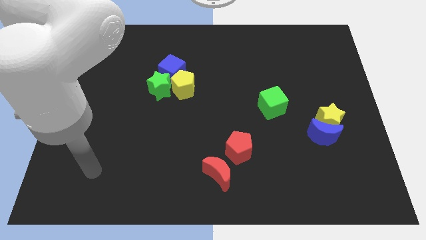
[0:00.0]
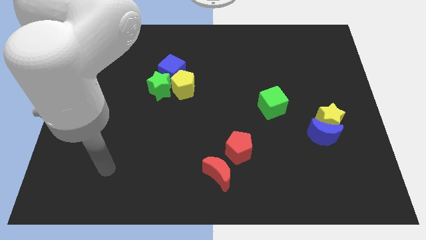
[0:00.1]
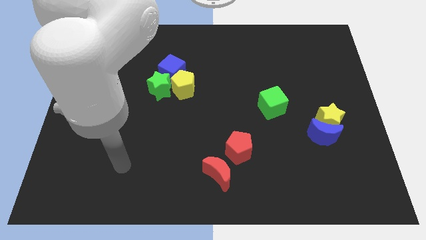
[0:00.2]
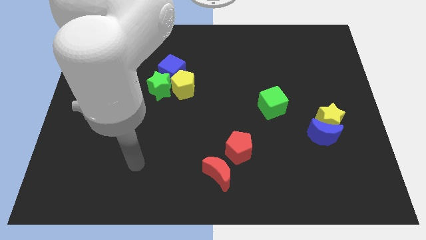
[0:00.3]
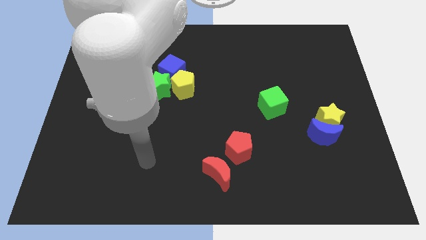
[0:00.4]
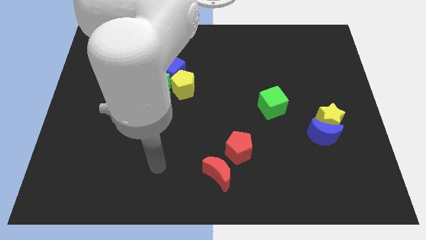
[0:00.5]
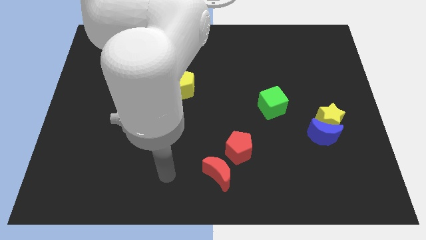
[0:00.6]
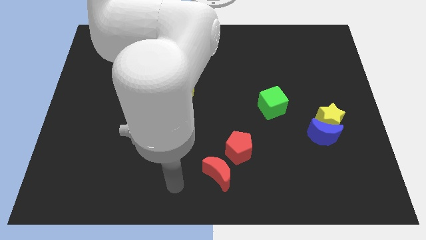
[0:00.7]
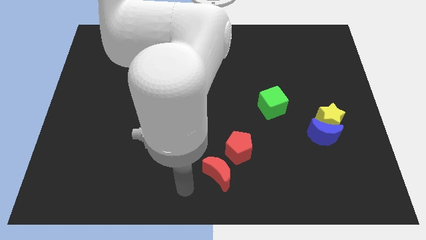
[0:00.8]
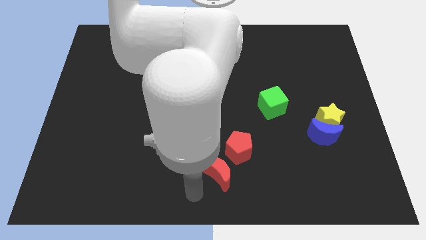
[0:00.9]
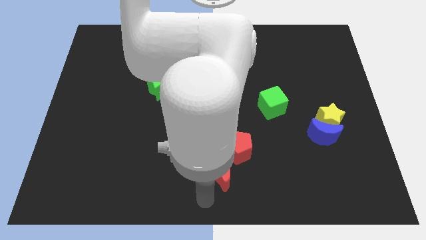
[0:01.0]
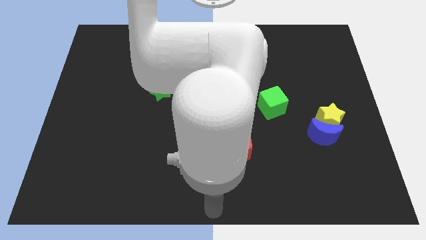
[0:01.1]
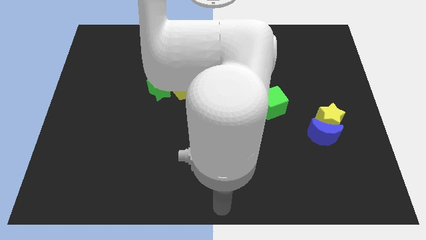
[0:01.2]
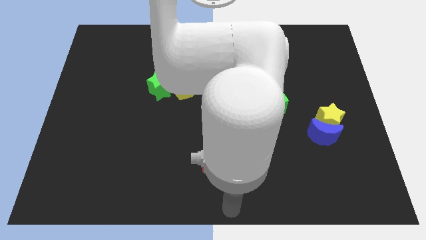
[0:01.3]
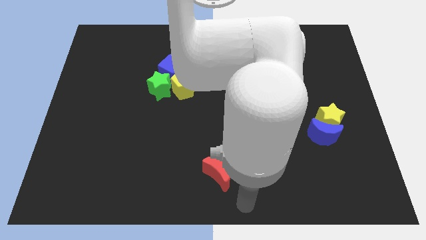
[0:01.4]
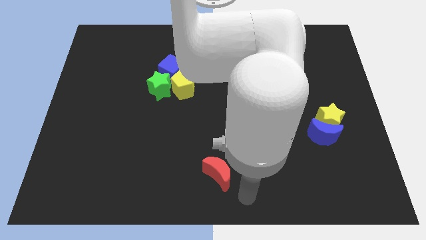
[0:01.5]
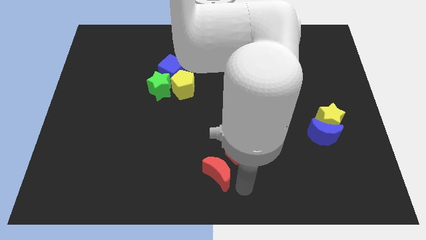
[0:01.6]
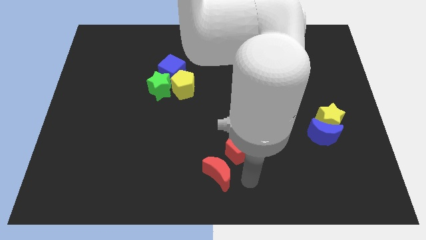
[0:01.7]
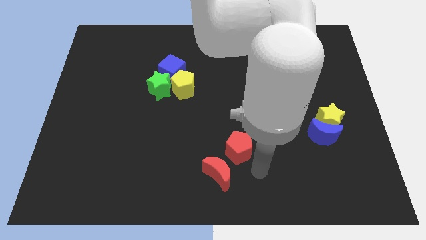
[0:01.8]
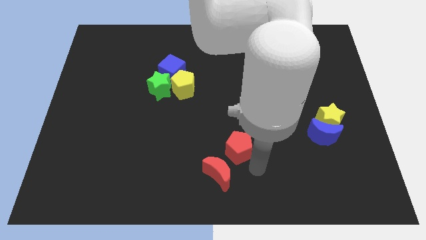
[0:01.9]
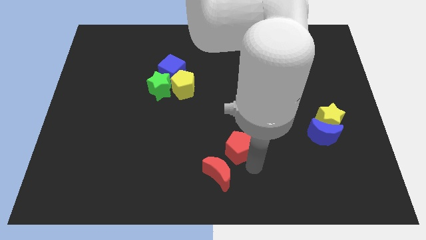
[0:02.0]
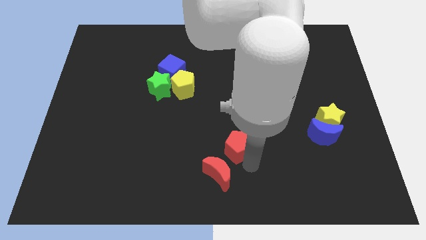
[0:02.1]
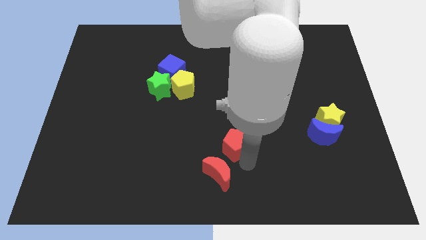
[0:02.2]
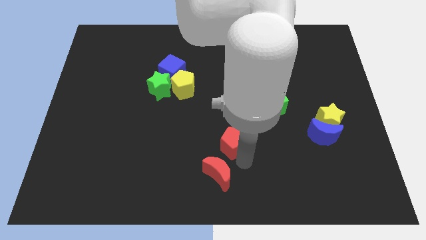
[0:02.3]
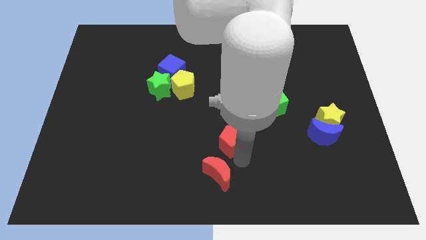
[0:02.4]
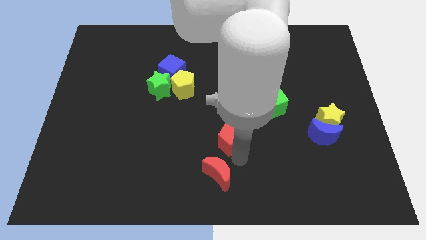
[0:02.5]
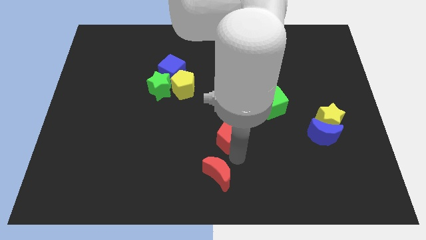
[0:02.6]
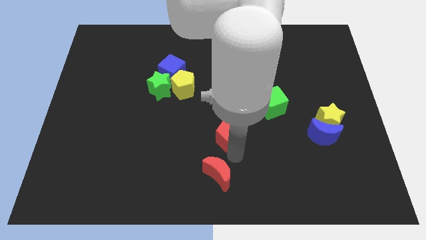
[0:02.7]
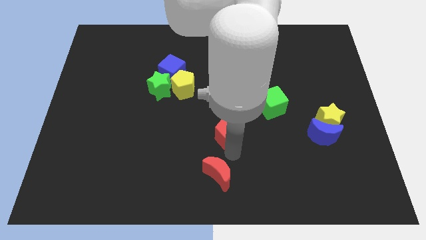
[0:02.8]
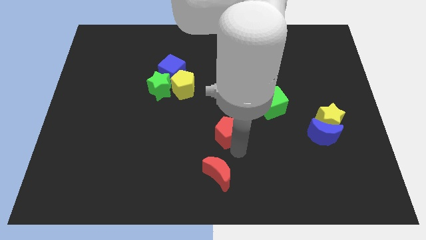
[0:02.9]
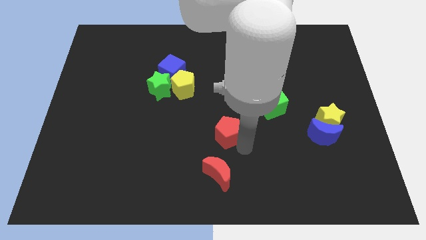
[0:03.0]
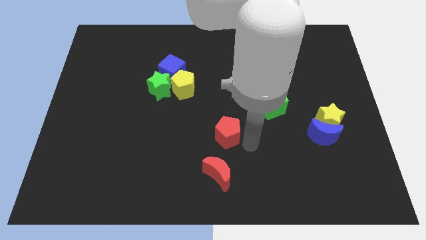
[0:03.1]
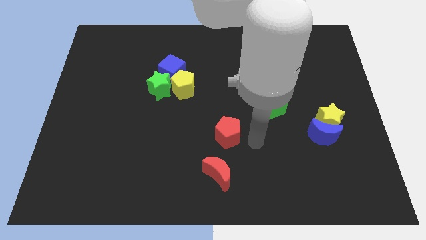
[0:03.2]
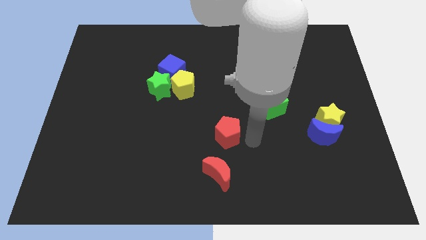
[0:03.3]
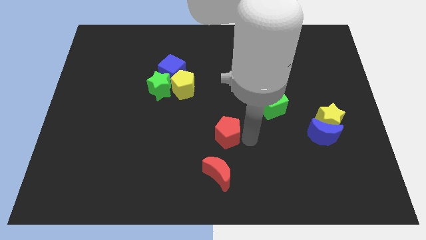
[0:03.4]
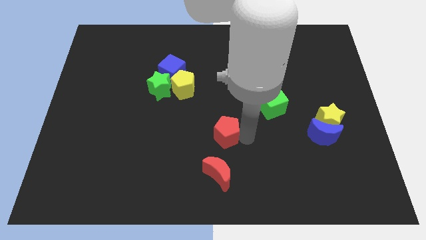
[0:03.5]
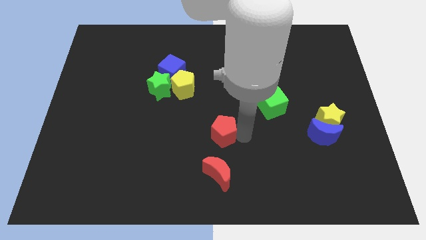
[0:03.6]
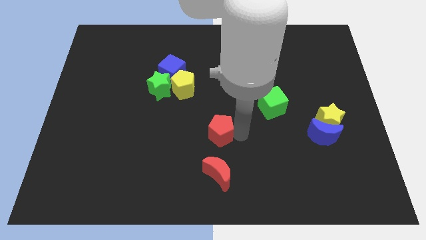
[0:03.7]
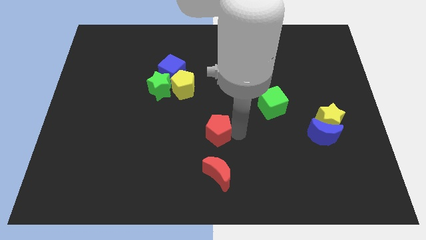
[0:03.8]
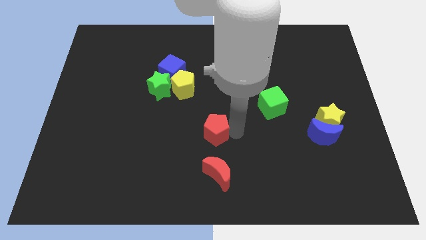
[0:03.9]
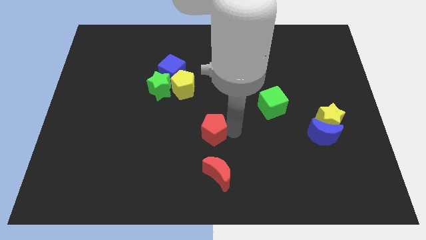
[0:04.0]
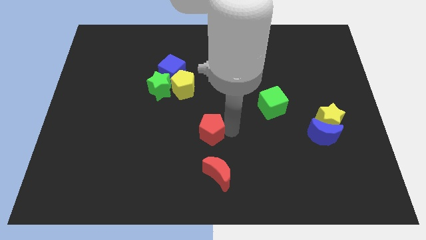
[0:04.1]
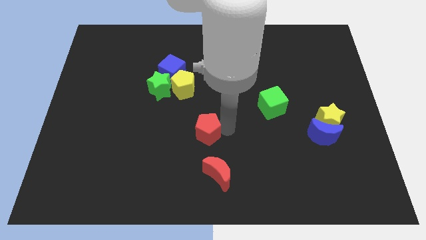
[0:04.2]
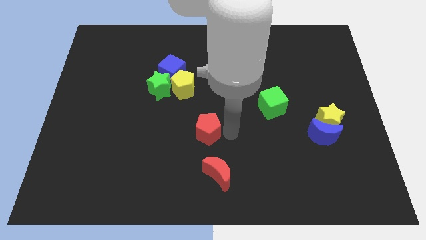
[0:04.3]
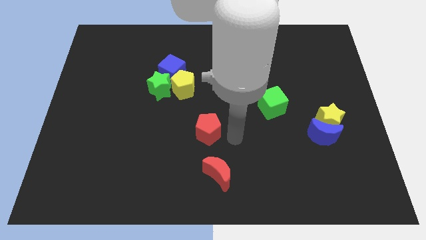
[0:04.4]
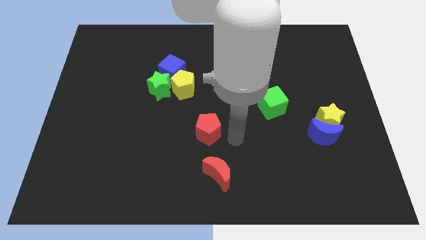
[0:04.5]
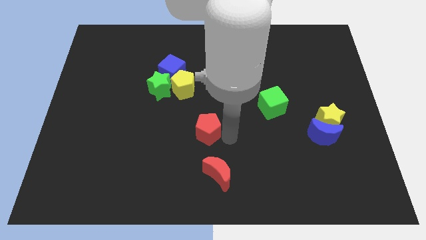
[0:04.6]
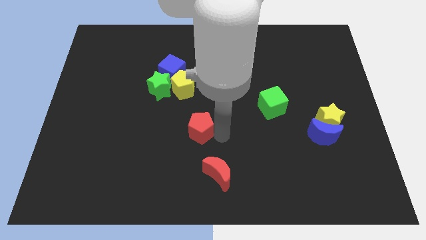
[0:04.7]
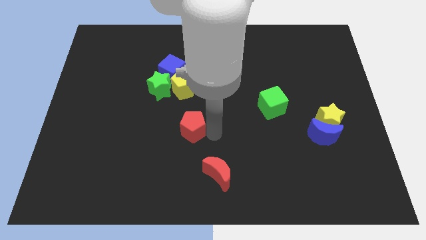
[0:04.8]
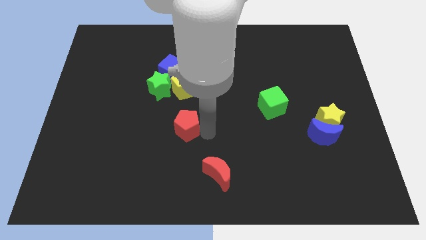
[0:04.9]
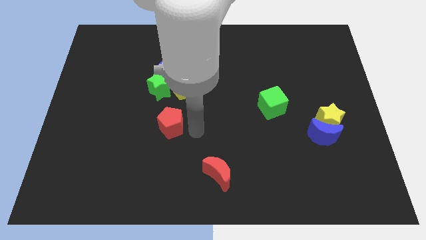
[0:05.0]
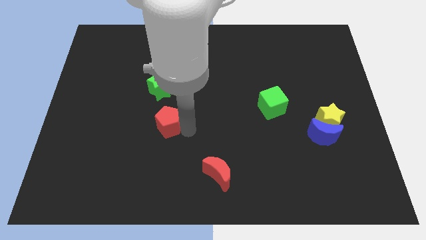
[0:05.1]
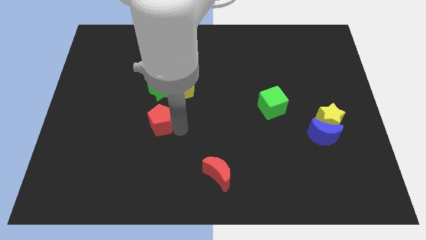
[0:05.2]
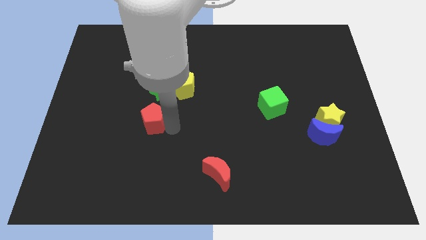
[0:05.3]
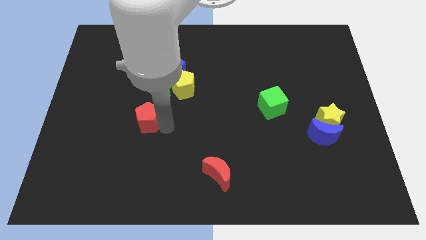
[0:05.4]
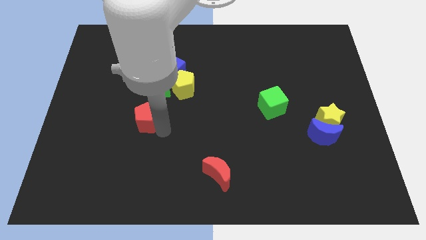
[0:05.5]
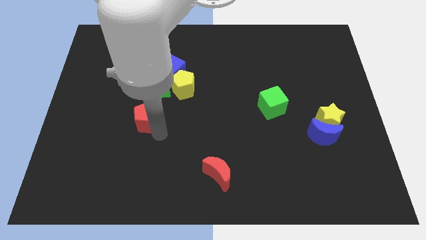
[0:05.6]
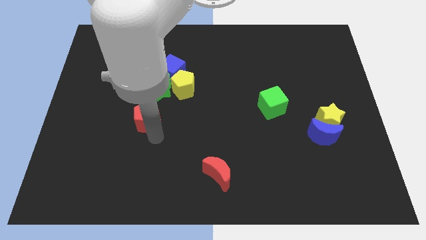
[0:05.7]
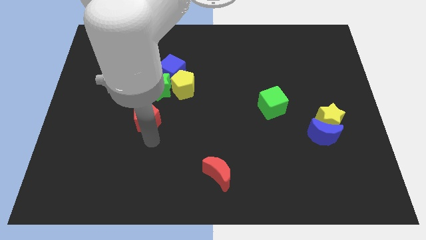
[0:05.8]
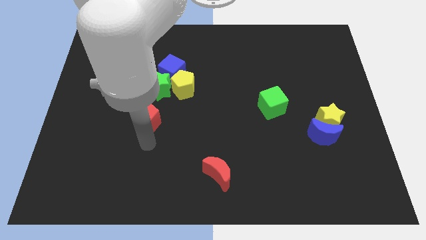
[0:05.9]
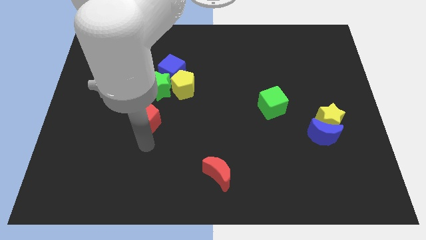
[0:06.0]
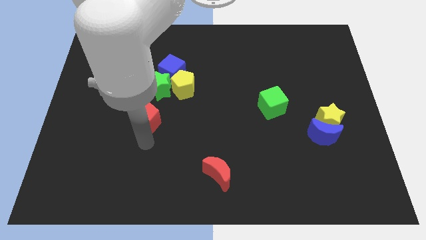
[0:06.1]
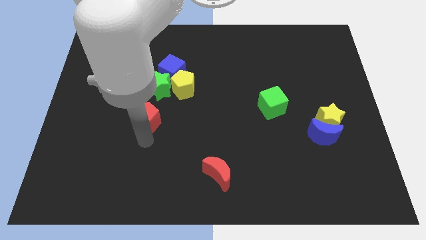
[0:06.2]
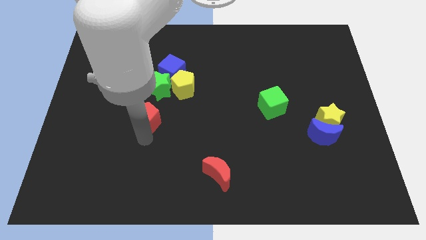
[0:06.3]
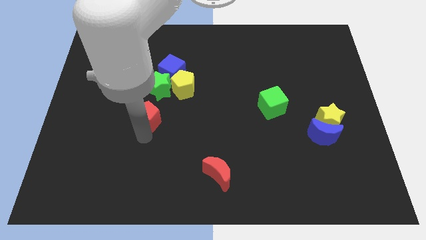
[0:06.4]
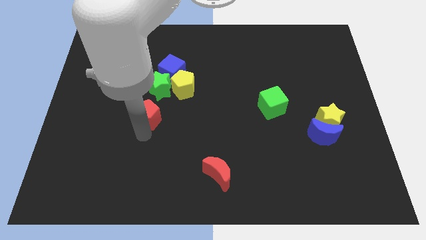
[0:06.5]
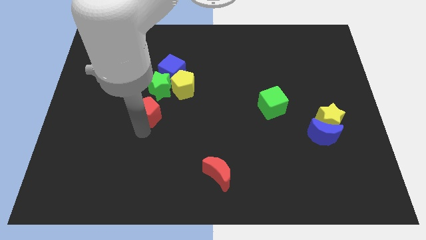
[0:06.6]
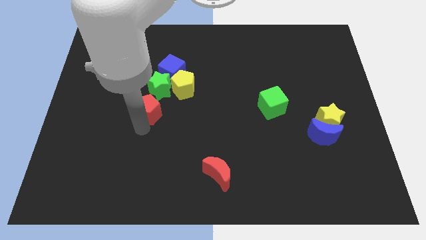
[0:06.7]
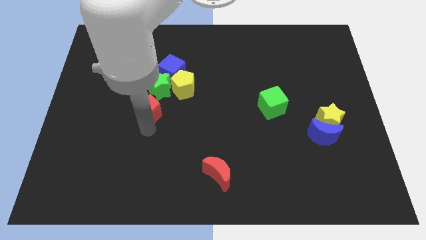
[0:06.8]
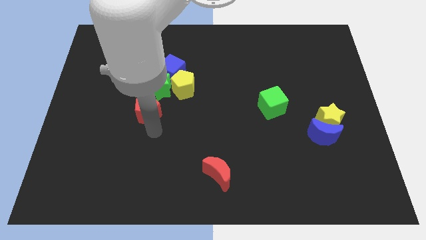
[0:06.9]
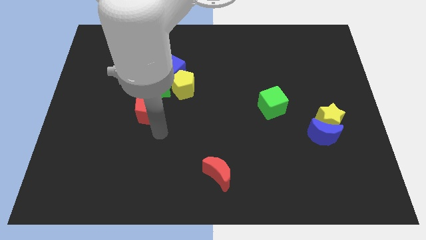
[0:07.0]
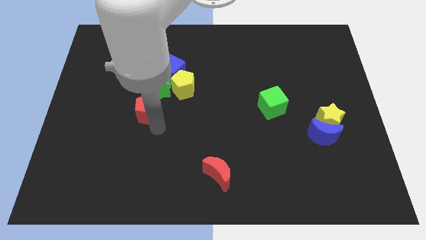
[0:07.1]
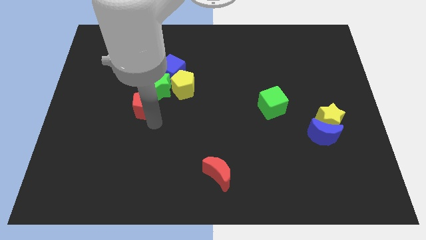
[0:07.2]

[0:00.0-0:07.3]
push the red pentagon diagonally upwards and left

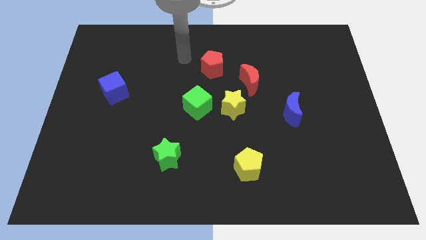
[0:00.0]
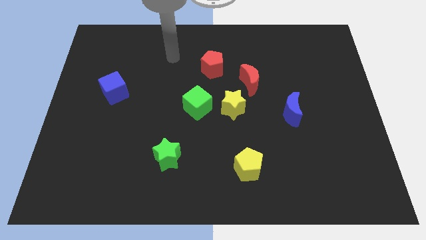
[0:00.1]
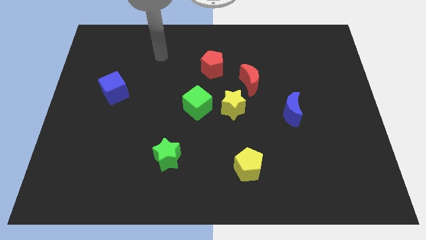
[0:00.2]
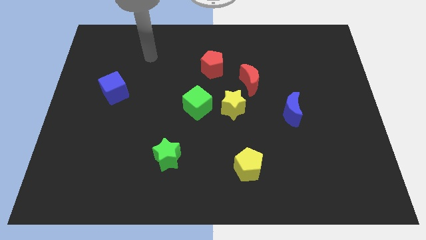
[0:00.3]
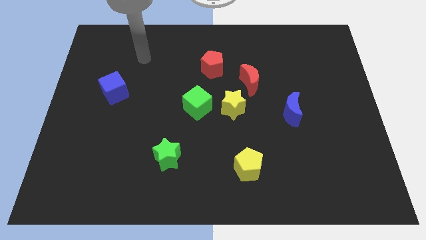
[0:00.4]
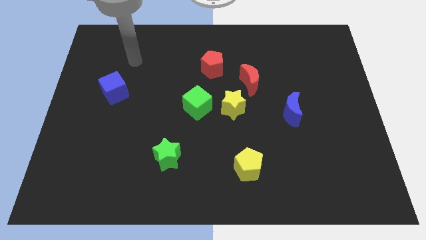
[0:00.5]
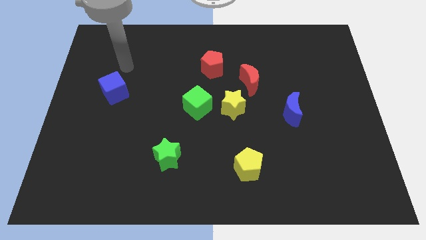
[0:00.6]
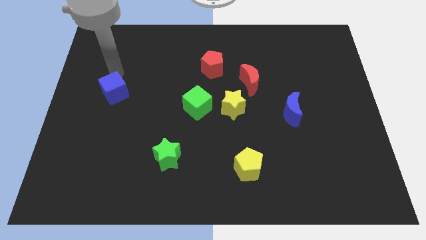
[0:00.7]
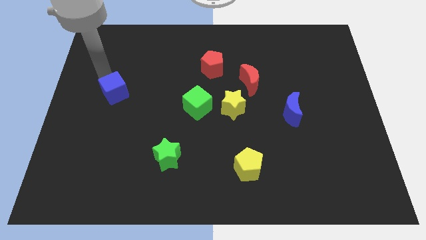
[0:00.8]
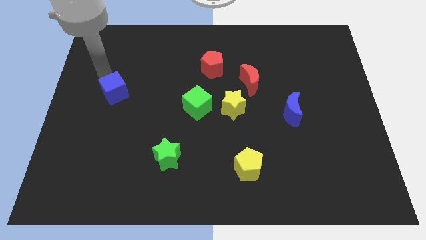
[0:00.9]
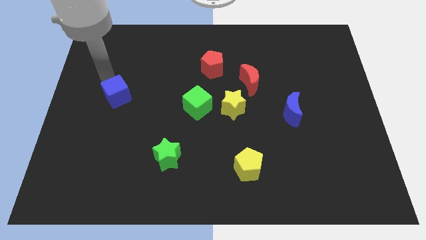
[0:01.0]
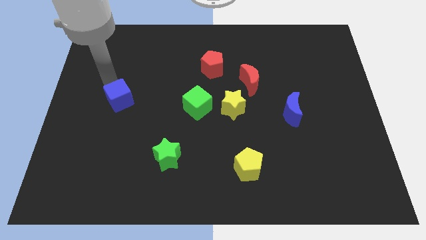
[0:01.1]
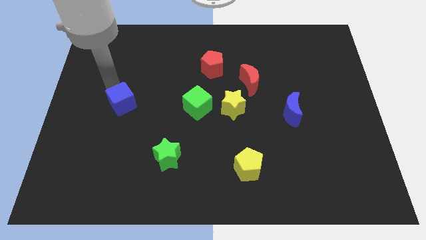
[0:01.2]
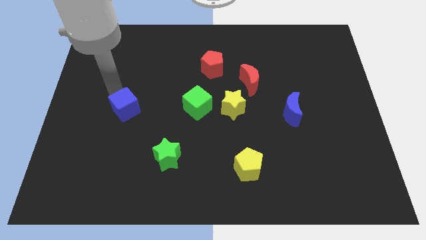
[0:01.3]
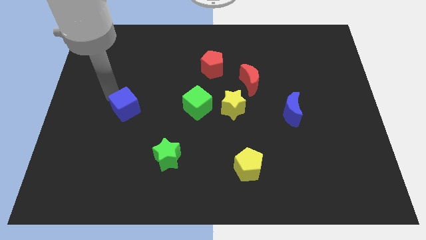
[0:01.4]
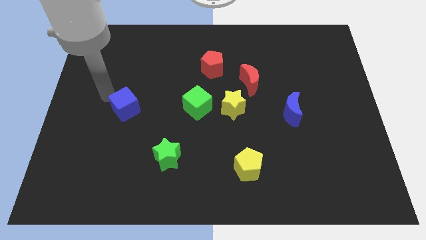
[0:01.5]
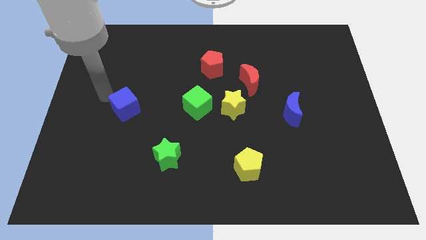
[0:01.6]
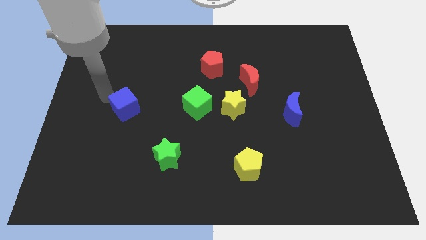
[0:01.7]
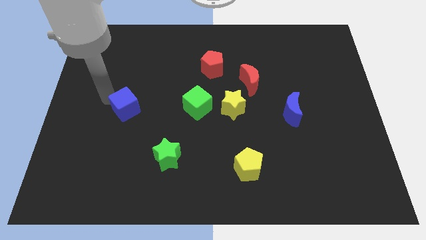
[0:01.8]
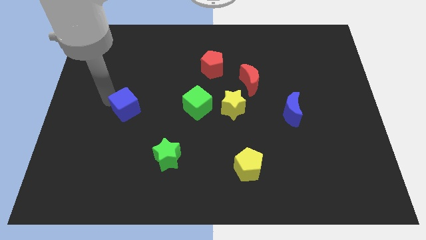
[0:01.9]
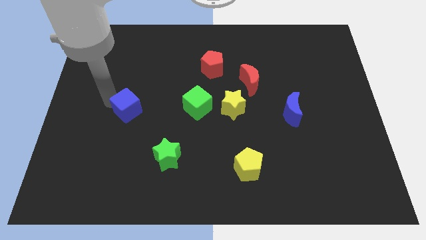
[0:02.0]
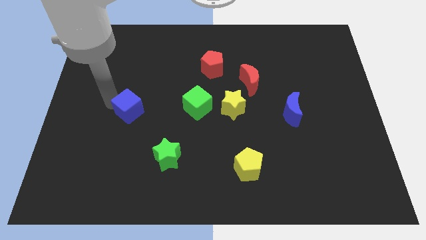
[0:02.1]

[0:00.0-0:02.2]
slightly move the blue cube downwards and then to the right
